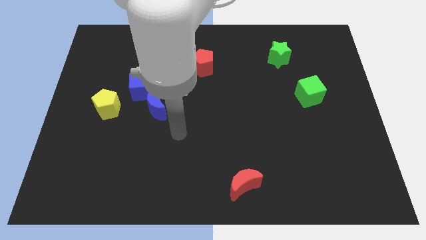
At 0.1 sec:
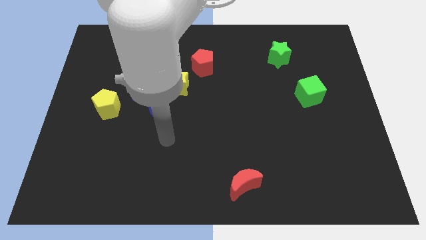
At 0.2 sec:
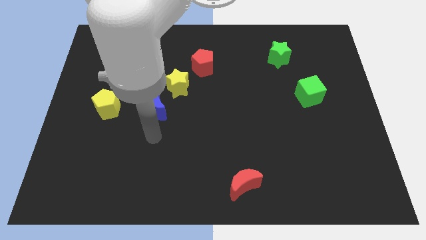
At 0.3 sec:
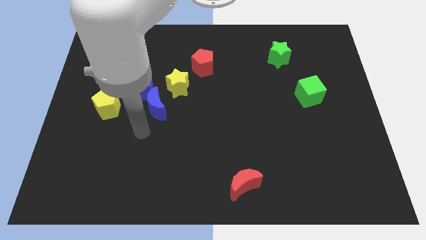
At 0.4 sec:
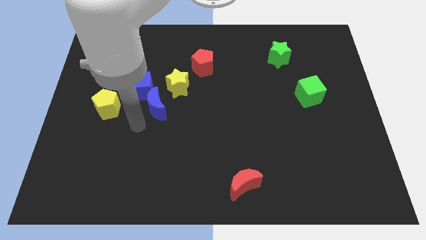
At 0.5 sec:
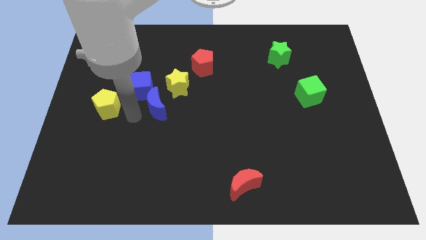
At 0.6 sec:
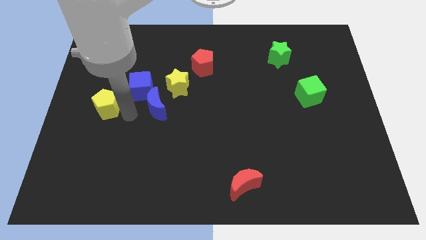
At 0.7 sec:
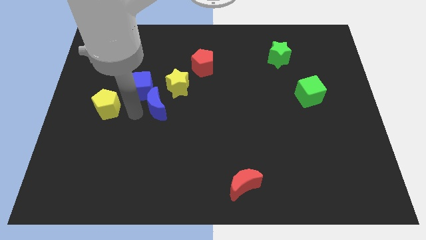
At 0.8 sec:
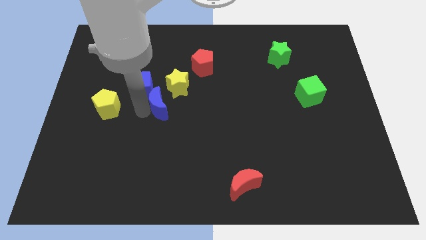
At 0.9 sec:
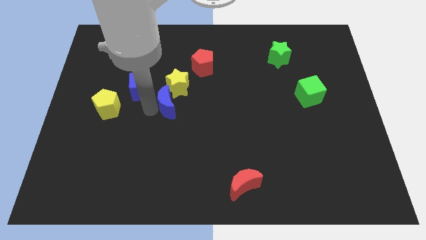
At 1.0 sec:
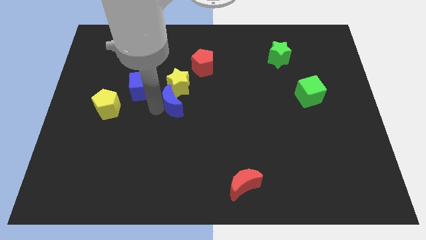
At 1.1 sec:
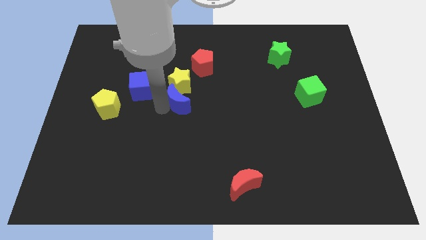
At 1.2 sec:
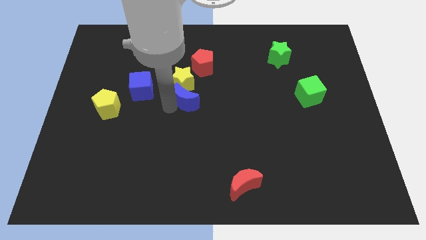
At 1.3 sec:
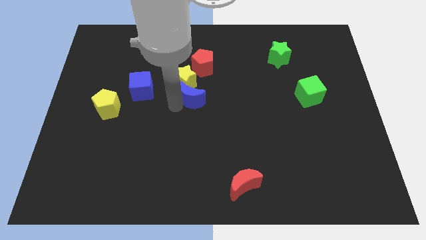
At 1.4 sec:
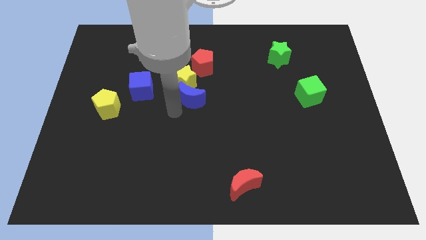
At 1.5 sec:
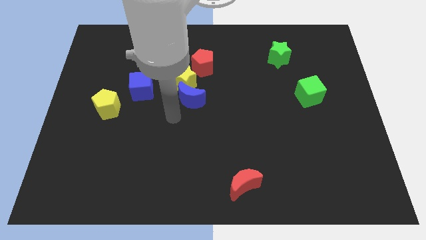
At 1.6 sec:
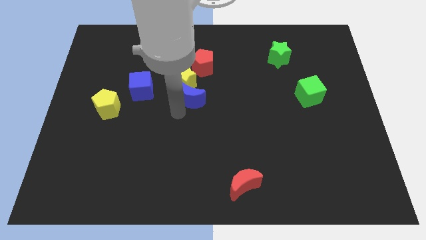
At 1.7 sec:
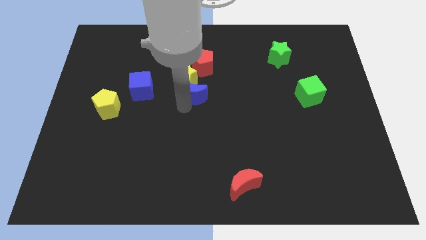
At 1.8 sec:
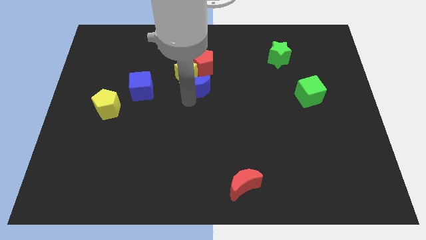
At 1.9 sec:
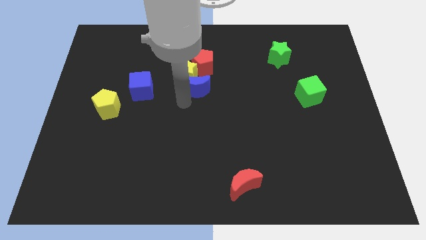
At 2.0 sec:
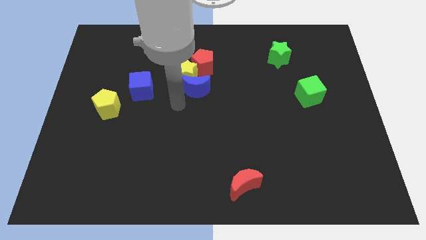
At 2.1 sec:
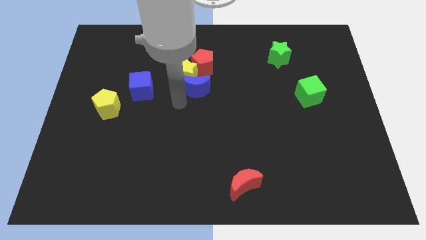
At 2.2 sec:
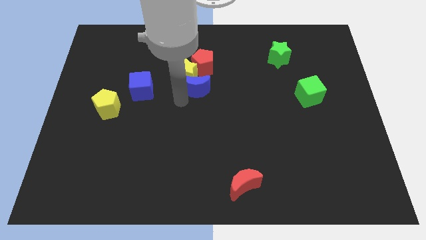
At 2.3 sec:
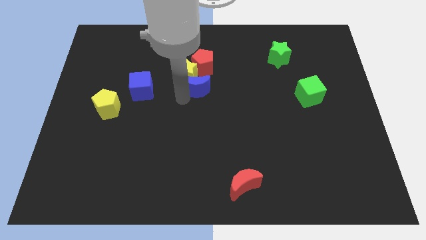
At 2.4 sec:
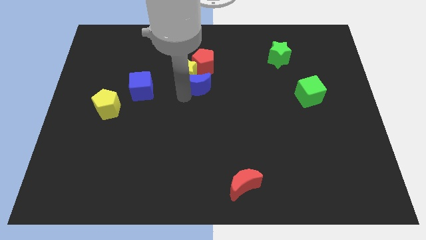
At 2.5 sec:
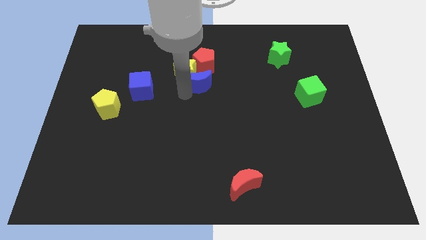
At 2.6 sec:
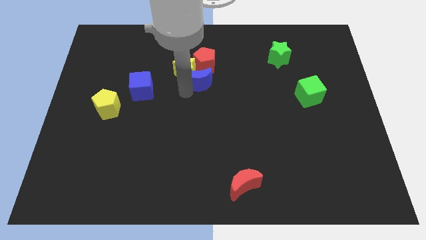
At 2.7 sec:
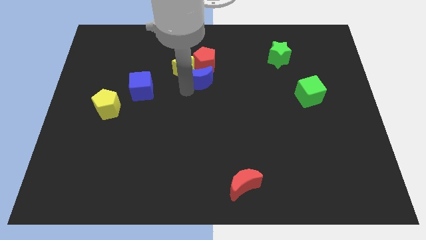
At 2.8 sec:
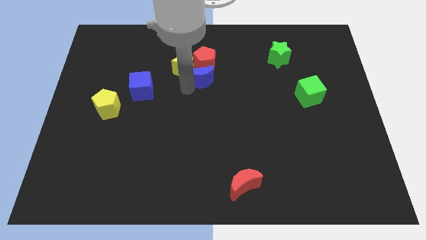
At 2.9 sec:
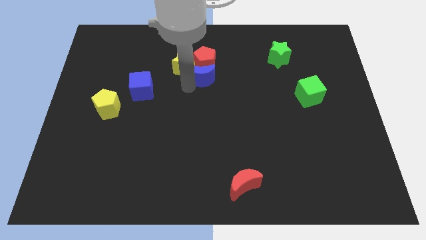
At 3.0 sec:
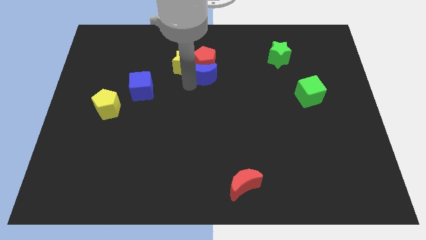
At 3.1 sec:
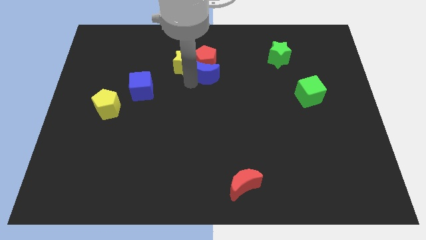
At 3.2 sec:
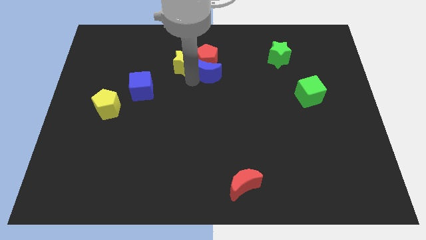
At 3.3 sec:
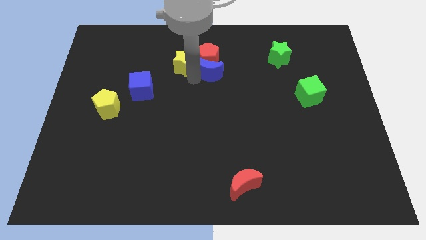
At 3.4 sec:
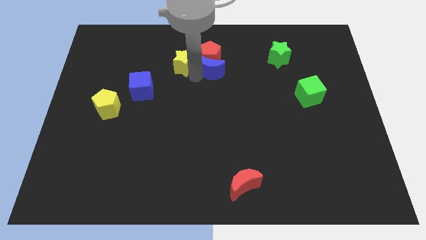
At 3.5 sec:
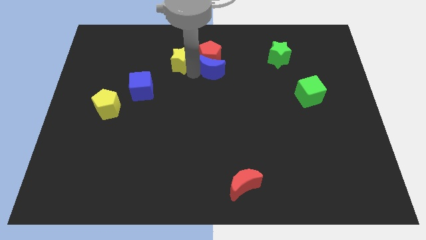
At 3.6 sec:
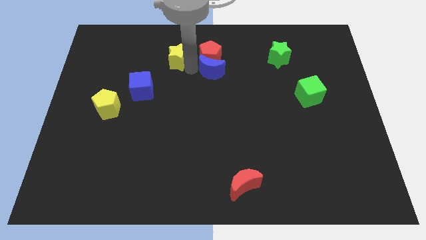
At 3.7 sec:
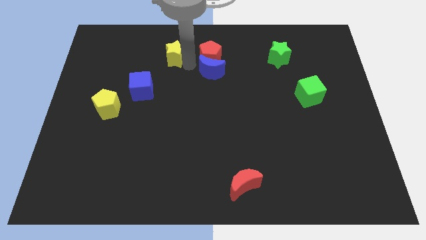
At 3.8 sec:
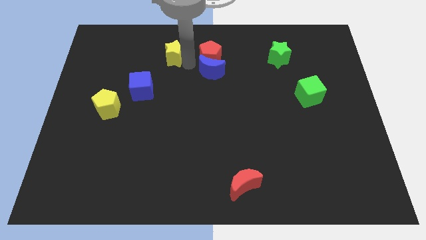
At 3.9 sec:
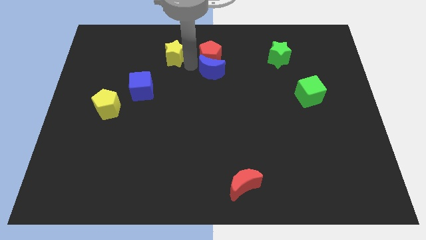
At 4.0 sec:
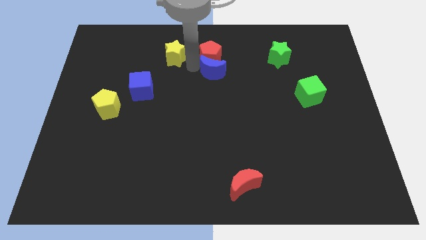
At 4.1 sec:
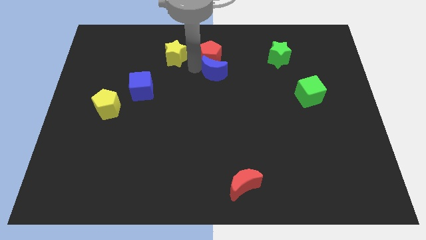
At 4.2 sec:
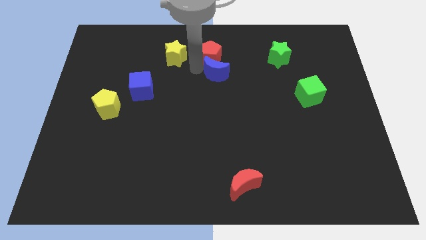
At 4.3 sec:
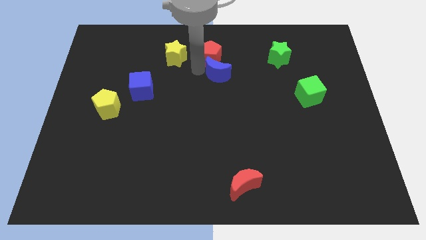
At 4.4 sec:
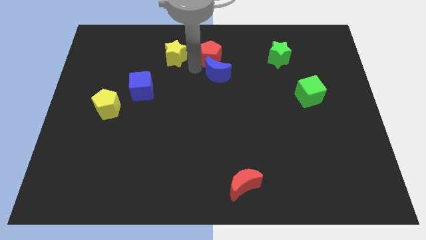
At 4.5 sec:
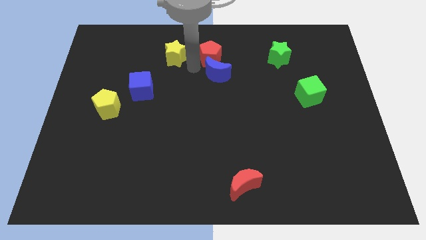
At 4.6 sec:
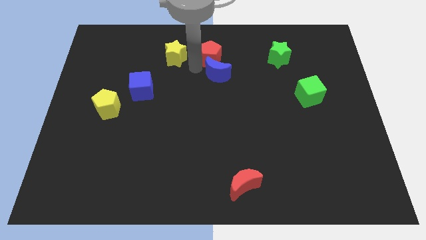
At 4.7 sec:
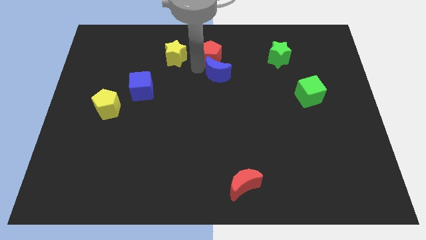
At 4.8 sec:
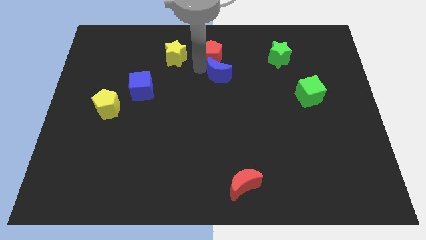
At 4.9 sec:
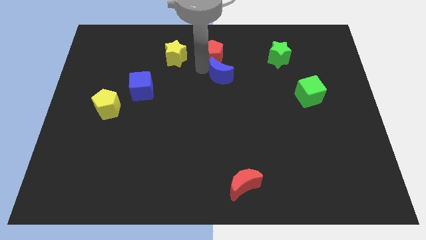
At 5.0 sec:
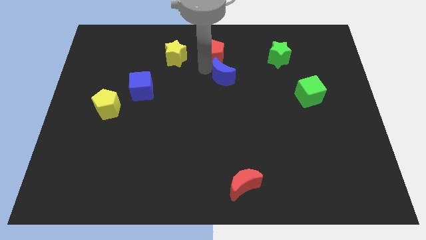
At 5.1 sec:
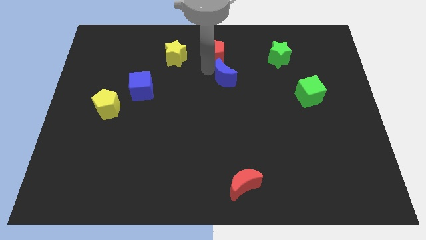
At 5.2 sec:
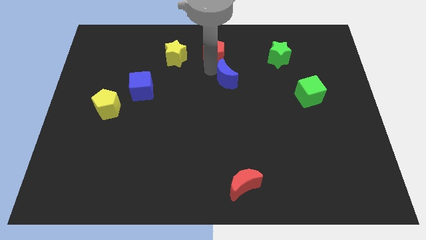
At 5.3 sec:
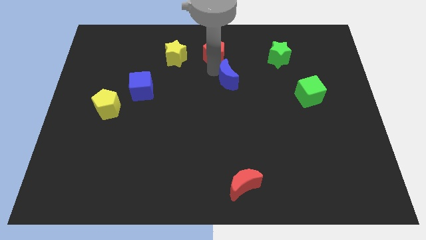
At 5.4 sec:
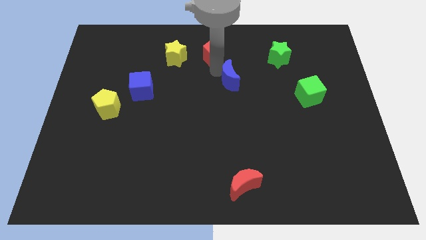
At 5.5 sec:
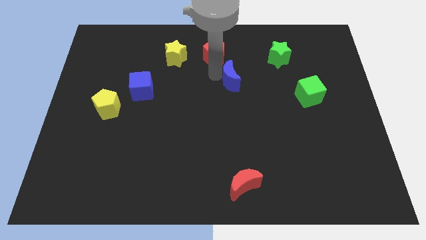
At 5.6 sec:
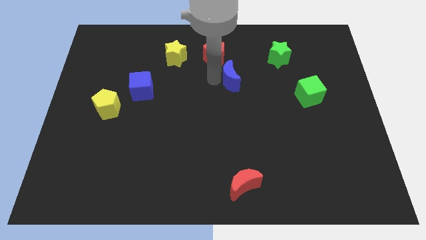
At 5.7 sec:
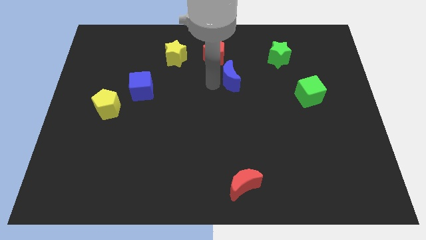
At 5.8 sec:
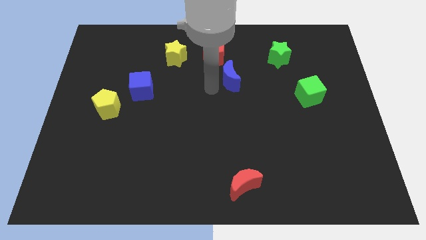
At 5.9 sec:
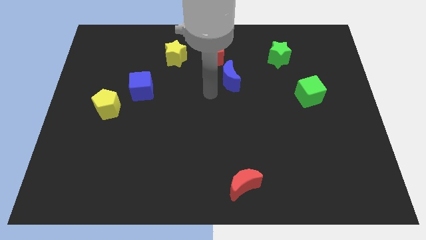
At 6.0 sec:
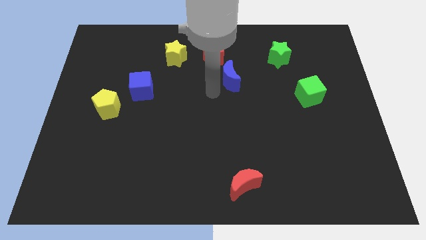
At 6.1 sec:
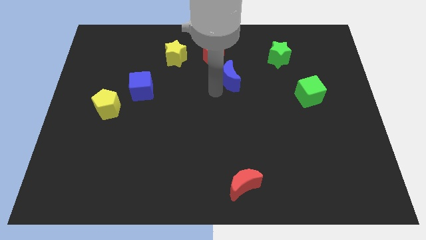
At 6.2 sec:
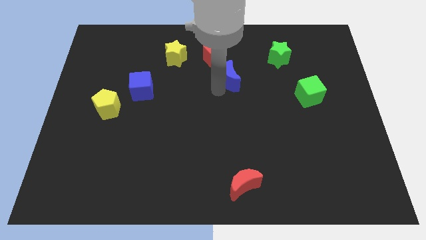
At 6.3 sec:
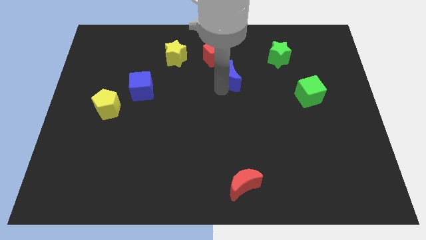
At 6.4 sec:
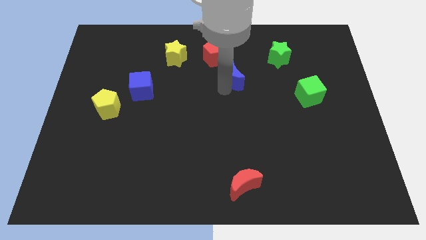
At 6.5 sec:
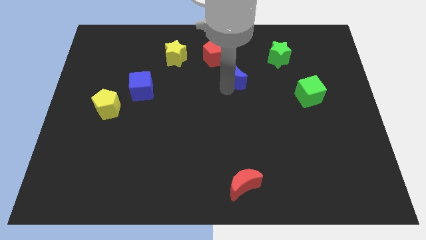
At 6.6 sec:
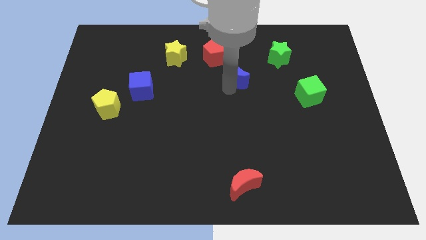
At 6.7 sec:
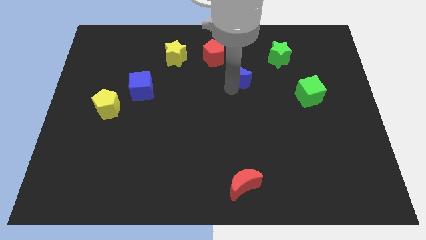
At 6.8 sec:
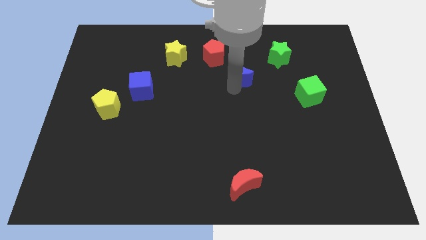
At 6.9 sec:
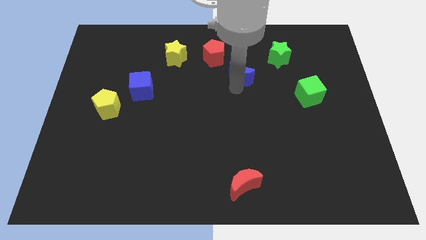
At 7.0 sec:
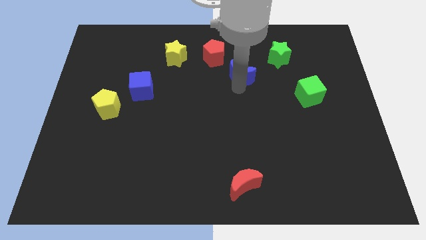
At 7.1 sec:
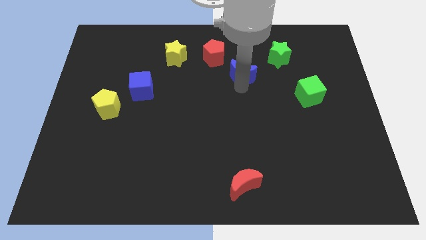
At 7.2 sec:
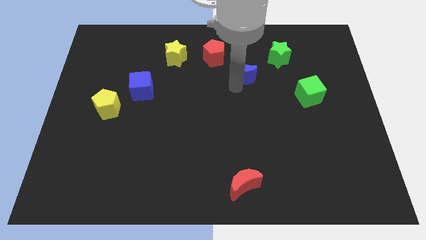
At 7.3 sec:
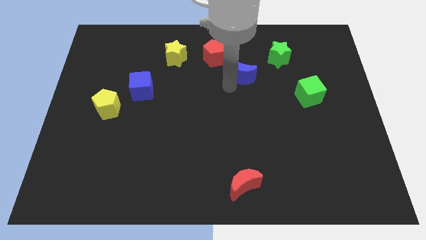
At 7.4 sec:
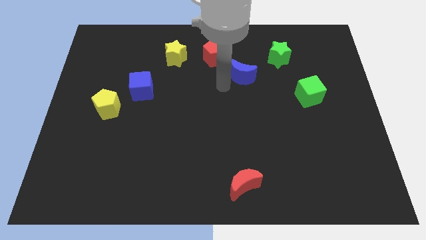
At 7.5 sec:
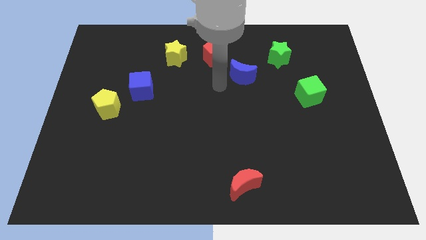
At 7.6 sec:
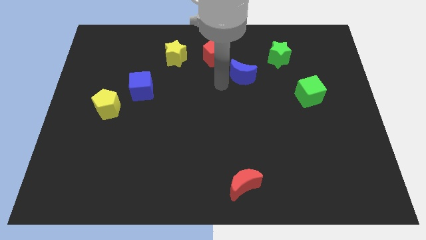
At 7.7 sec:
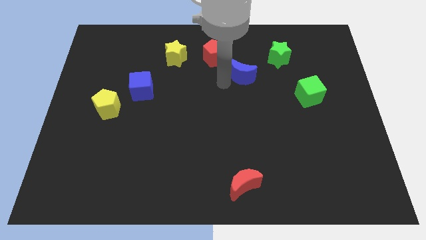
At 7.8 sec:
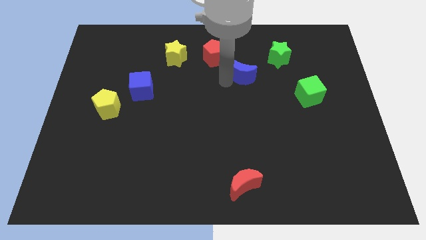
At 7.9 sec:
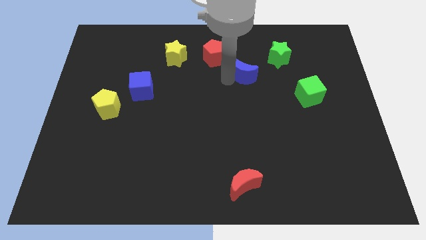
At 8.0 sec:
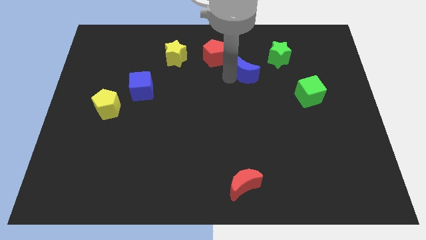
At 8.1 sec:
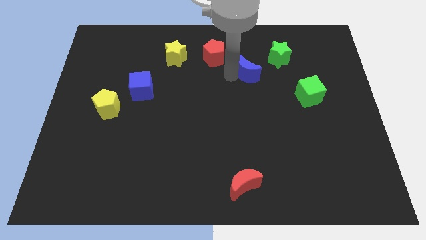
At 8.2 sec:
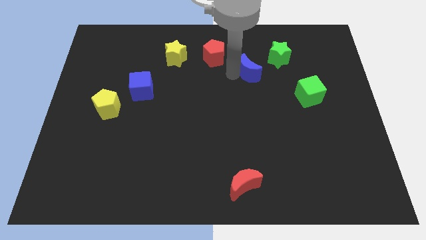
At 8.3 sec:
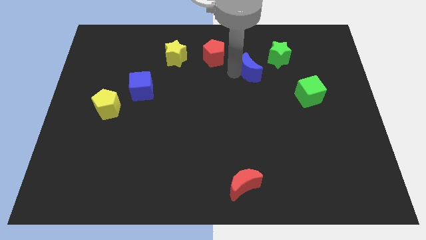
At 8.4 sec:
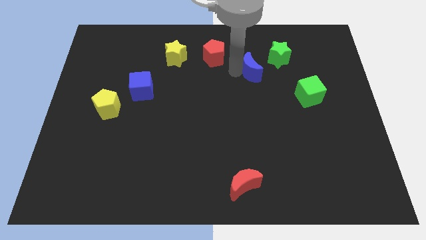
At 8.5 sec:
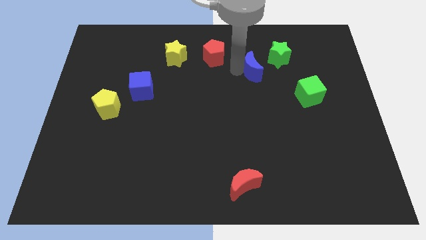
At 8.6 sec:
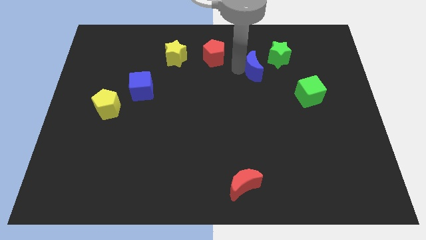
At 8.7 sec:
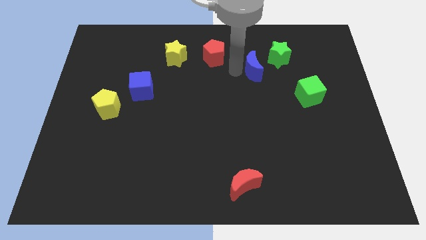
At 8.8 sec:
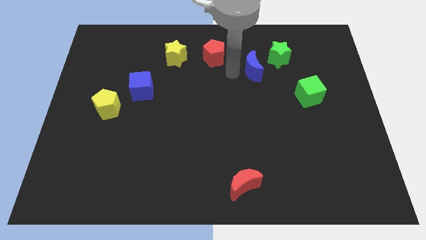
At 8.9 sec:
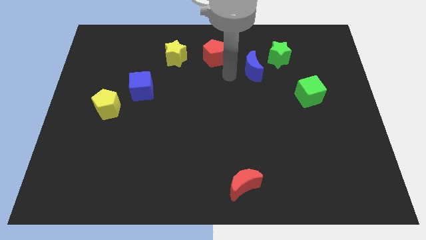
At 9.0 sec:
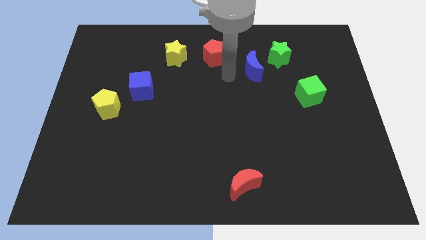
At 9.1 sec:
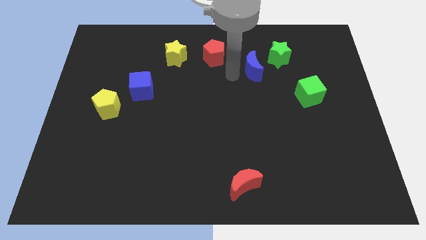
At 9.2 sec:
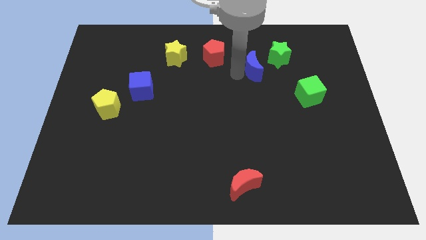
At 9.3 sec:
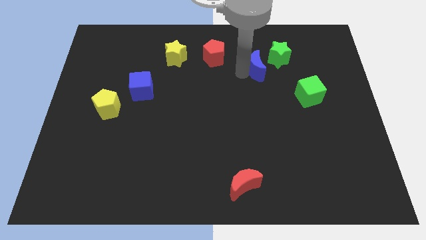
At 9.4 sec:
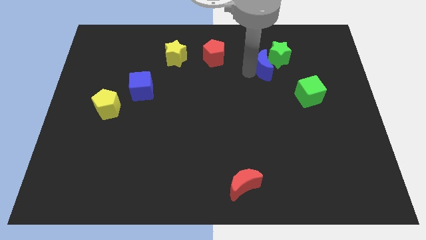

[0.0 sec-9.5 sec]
slide the blue moon close to the green star
